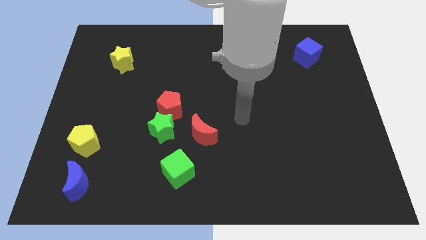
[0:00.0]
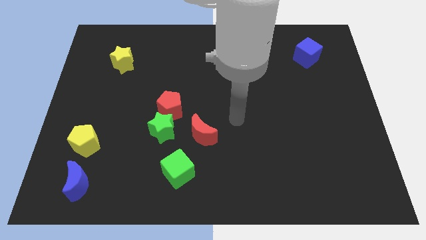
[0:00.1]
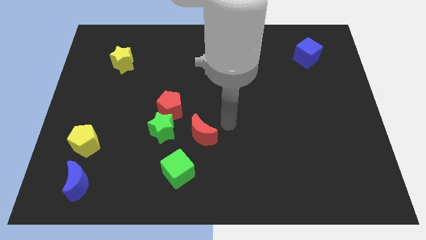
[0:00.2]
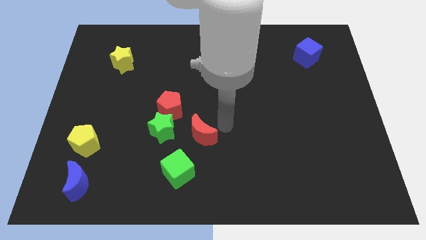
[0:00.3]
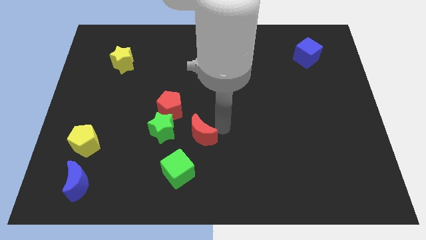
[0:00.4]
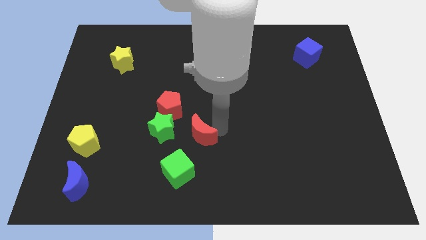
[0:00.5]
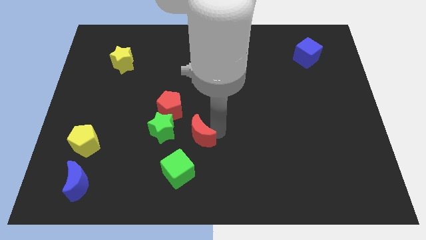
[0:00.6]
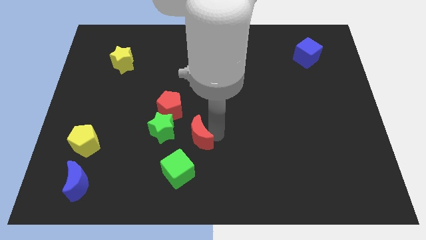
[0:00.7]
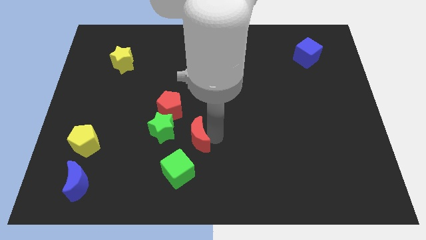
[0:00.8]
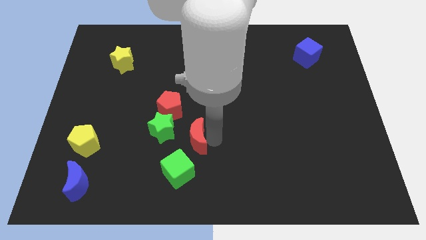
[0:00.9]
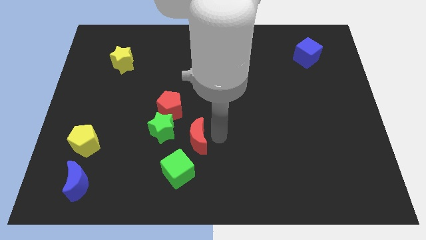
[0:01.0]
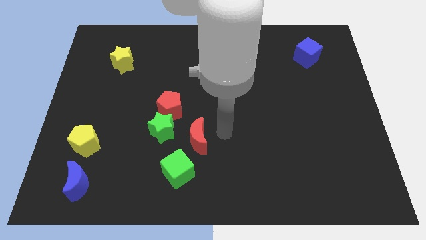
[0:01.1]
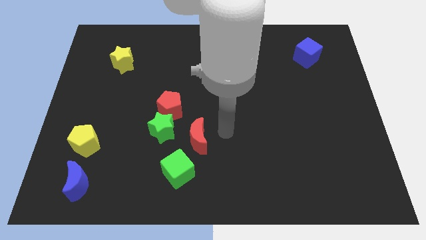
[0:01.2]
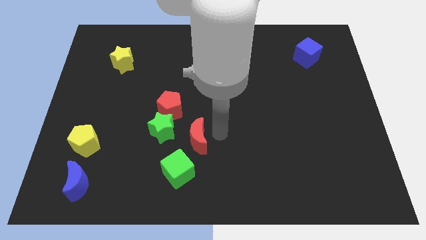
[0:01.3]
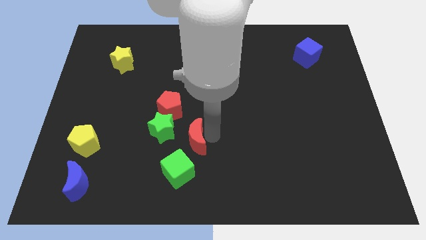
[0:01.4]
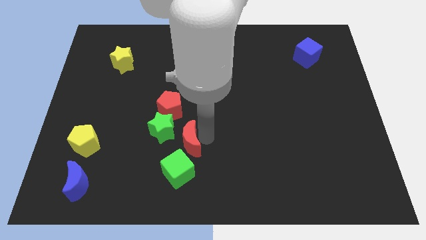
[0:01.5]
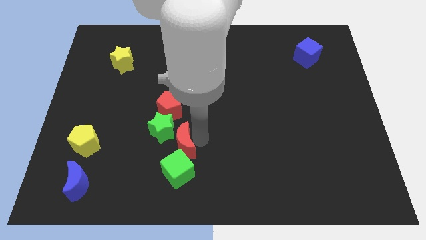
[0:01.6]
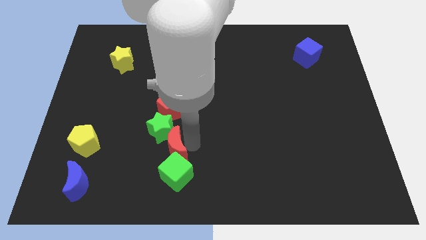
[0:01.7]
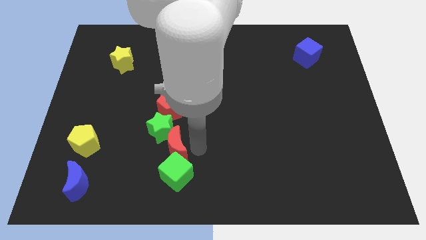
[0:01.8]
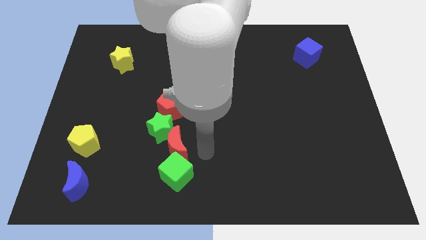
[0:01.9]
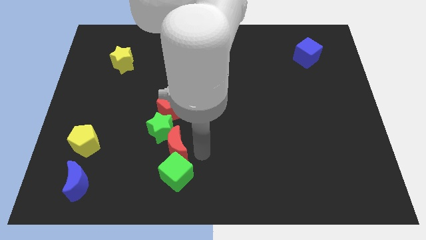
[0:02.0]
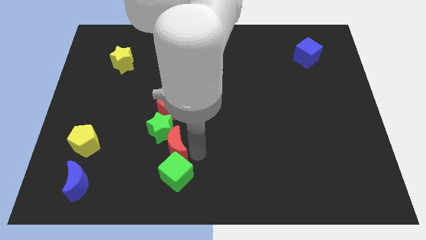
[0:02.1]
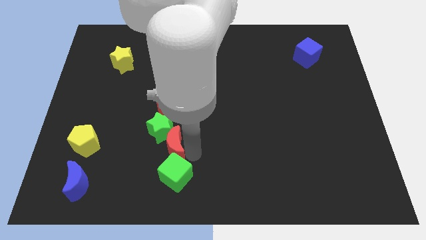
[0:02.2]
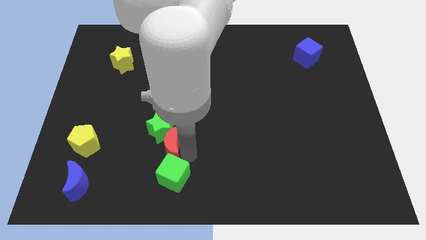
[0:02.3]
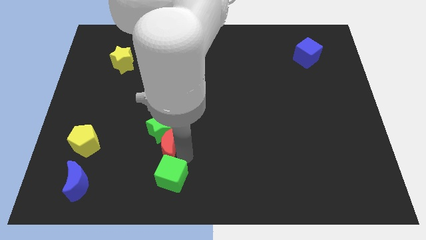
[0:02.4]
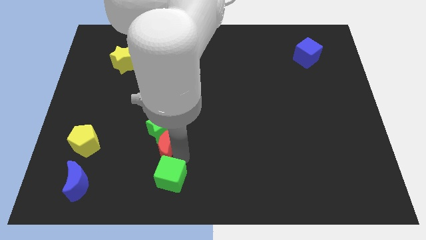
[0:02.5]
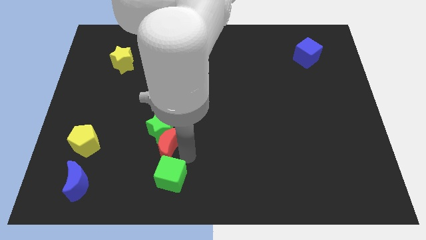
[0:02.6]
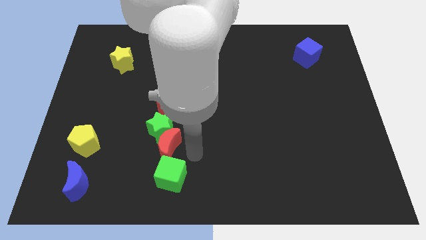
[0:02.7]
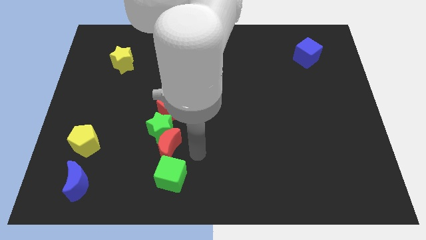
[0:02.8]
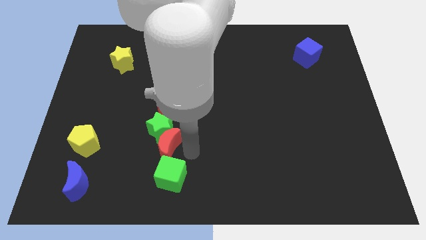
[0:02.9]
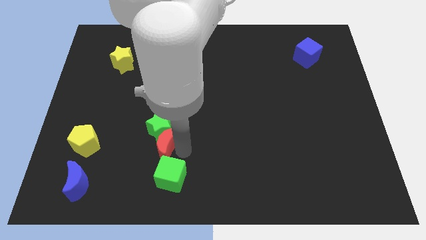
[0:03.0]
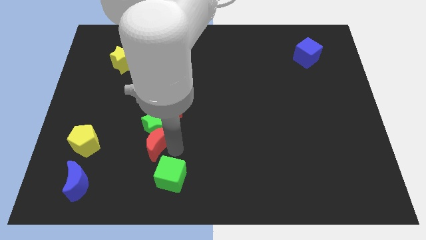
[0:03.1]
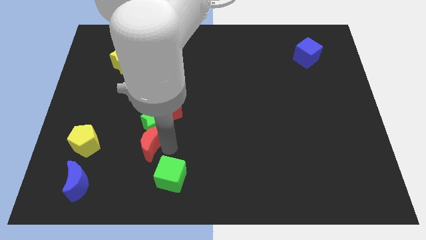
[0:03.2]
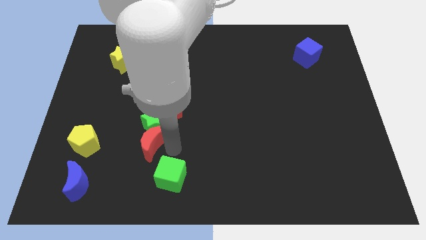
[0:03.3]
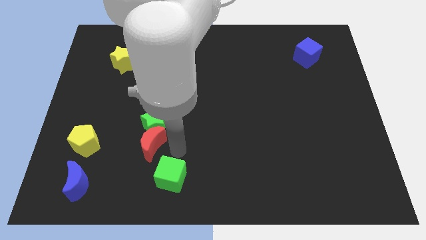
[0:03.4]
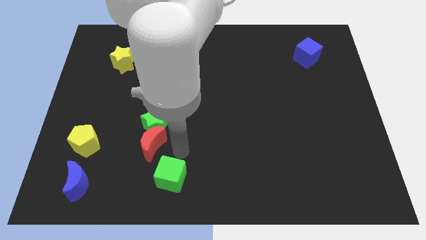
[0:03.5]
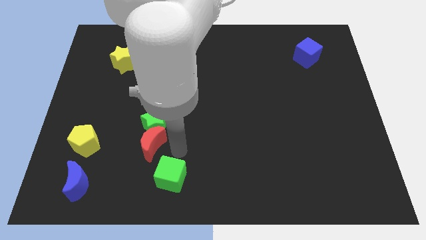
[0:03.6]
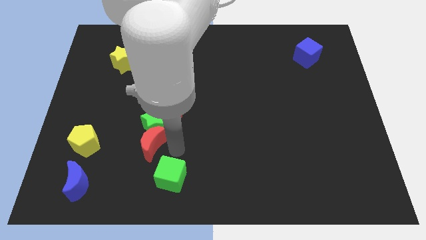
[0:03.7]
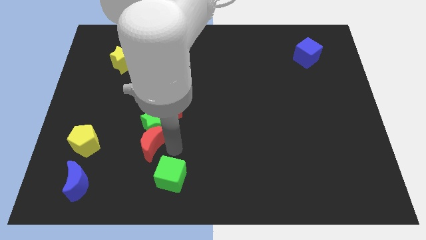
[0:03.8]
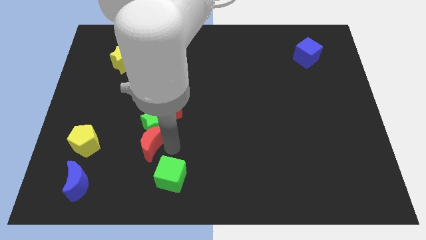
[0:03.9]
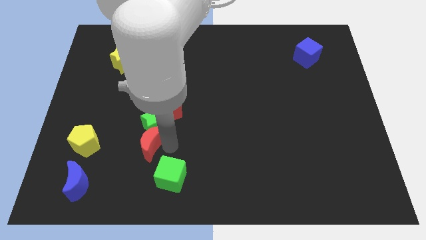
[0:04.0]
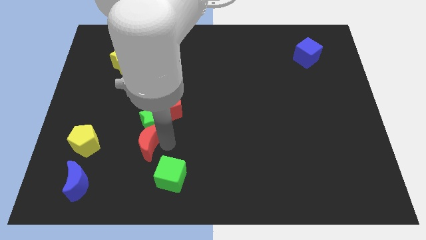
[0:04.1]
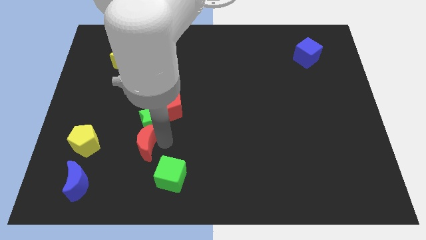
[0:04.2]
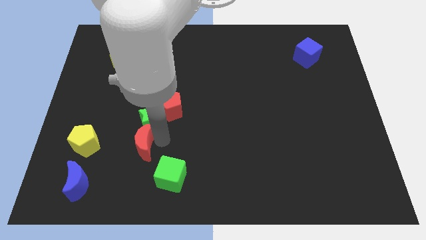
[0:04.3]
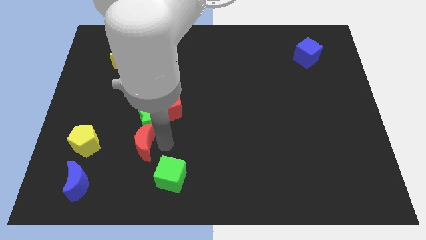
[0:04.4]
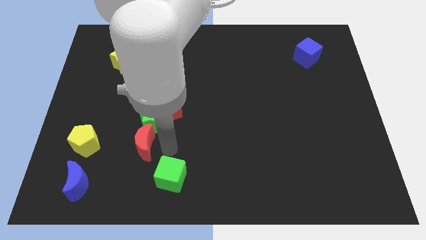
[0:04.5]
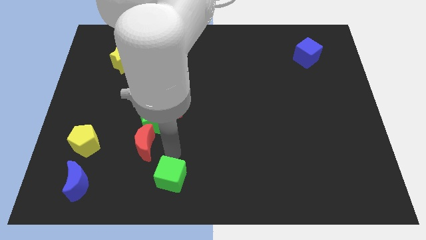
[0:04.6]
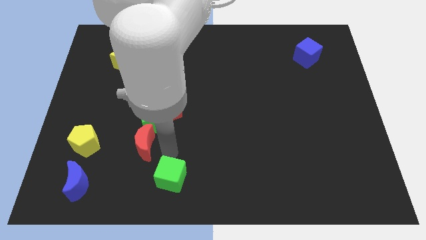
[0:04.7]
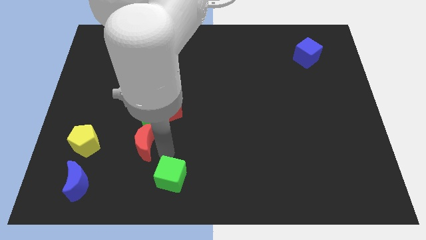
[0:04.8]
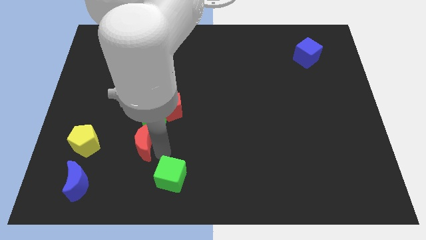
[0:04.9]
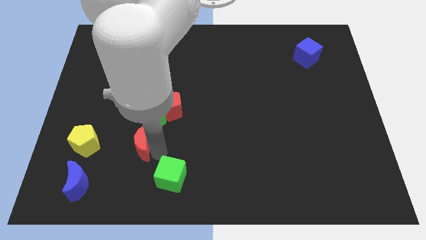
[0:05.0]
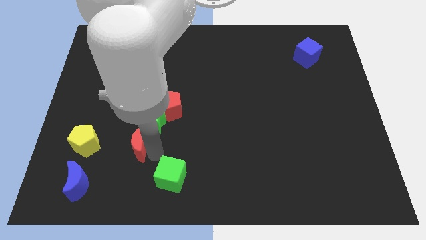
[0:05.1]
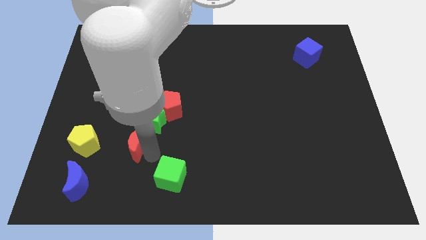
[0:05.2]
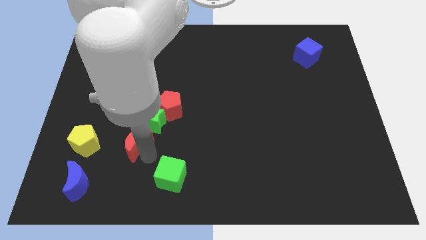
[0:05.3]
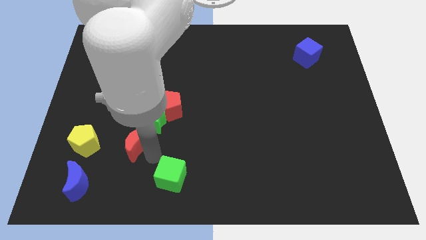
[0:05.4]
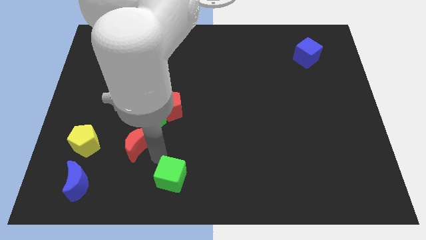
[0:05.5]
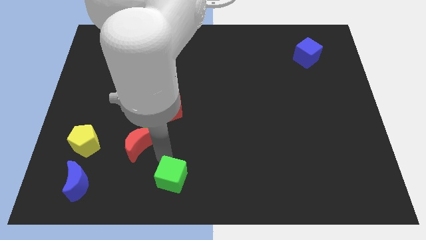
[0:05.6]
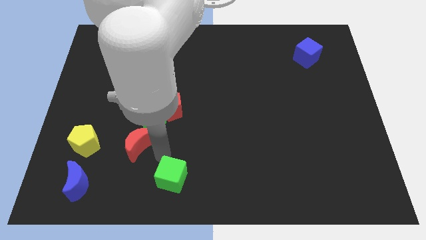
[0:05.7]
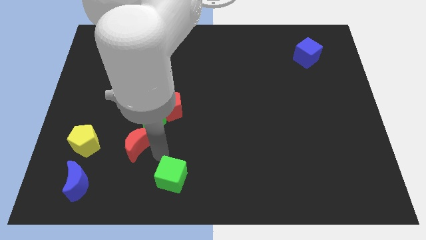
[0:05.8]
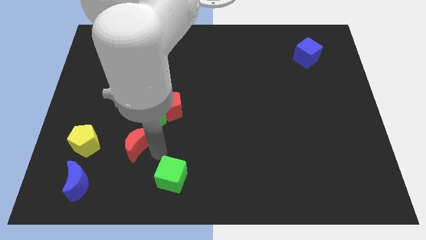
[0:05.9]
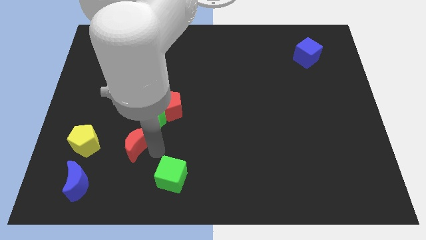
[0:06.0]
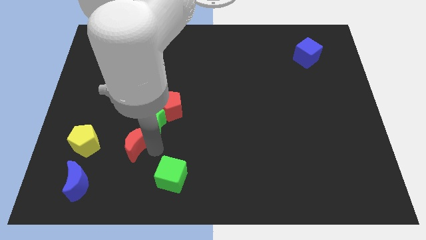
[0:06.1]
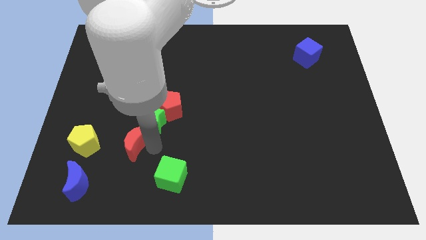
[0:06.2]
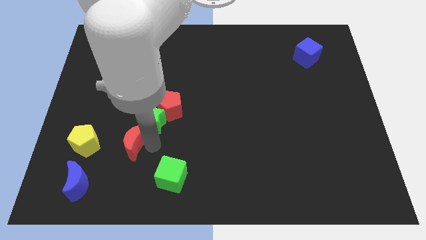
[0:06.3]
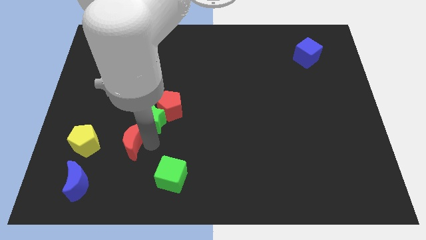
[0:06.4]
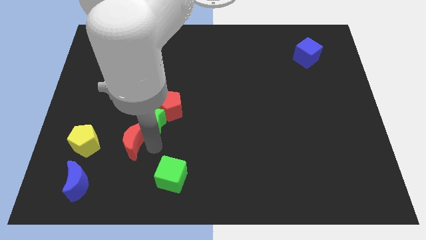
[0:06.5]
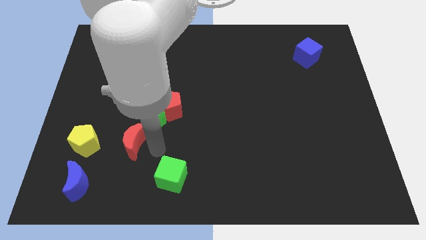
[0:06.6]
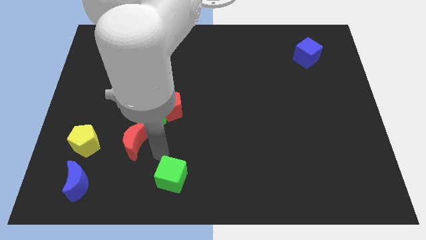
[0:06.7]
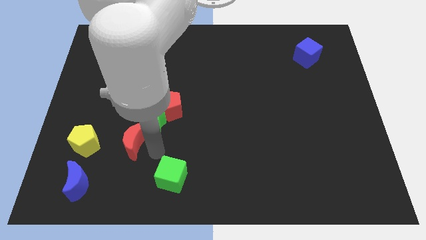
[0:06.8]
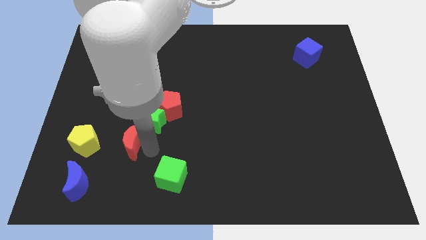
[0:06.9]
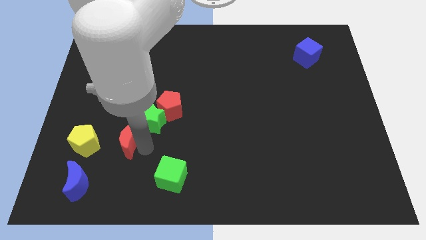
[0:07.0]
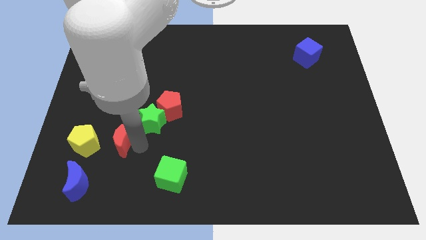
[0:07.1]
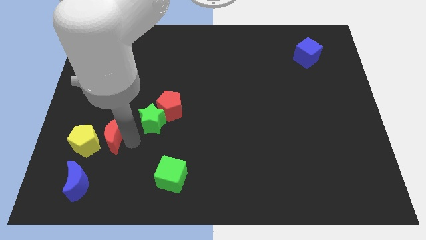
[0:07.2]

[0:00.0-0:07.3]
slide the red moon towards the yellow pentagon
